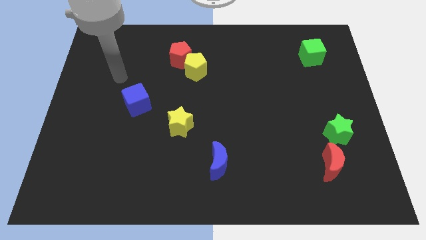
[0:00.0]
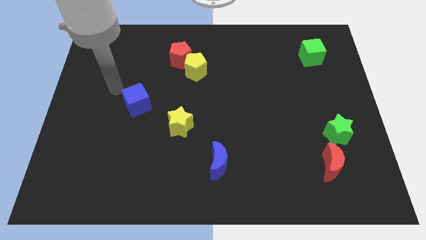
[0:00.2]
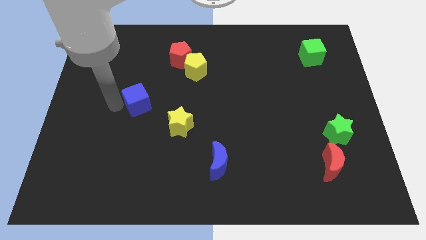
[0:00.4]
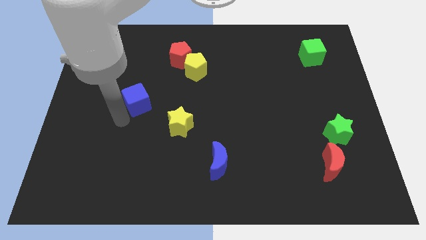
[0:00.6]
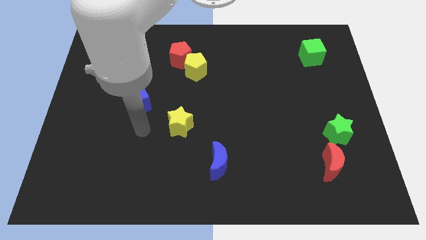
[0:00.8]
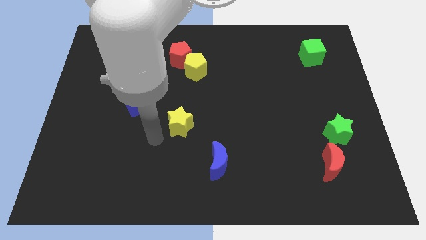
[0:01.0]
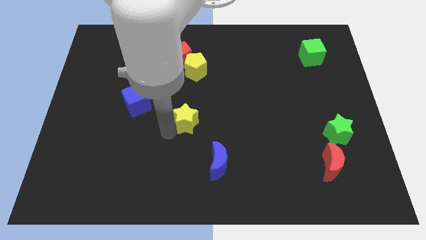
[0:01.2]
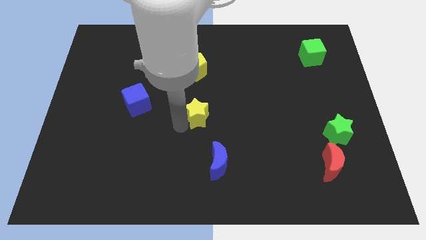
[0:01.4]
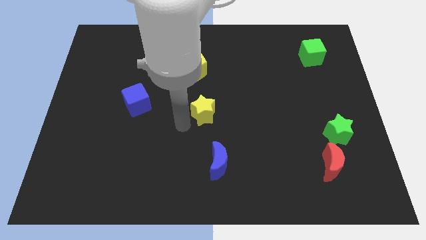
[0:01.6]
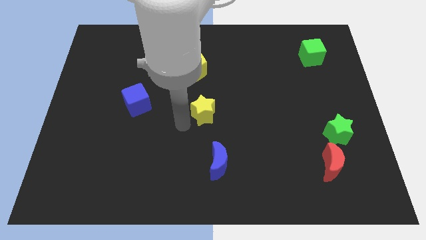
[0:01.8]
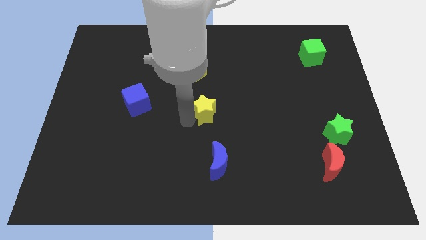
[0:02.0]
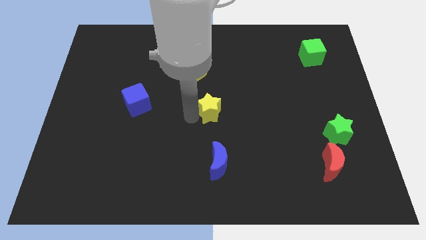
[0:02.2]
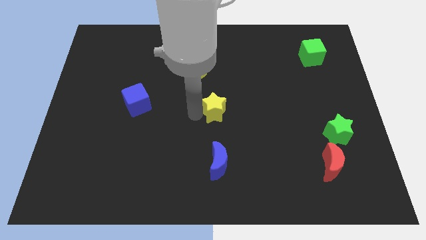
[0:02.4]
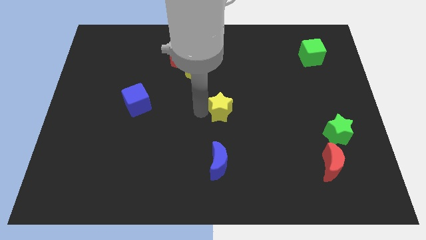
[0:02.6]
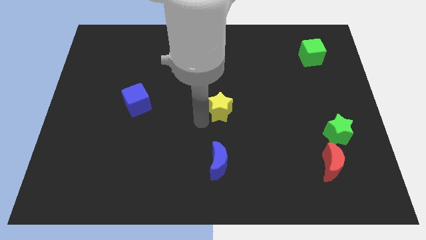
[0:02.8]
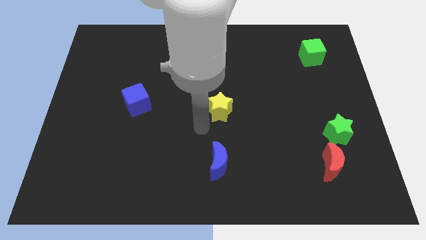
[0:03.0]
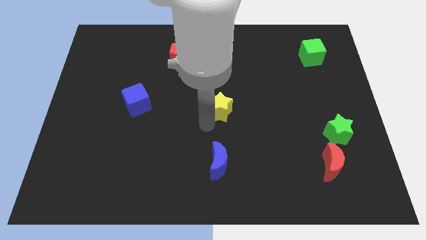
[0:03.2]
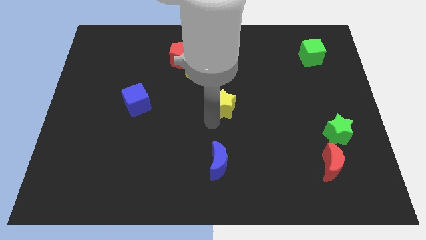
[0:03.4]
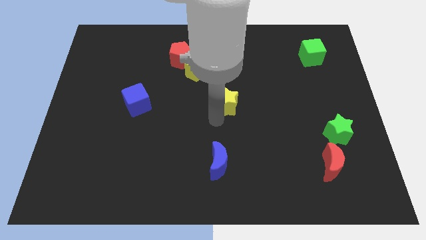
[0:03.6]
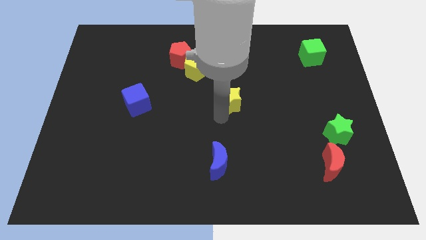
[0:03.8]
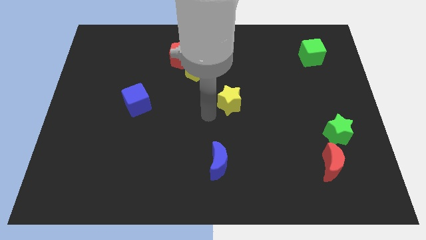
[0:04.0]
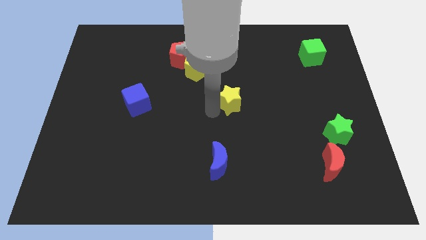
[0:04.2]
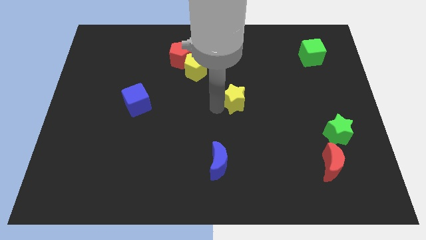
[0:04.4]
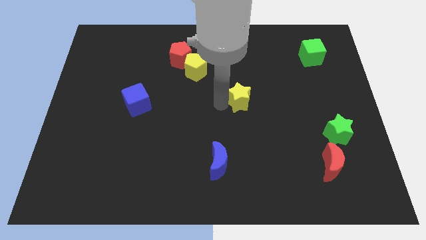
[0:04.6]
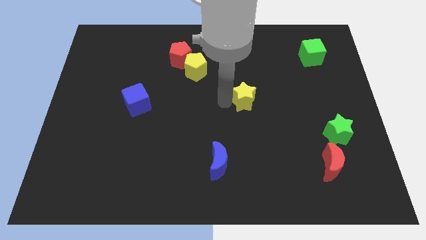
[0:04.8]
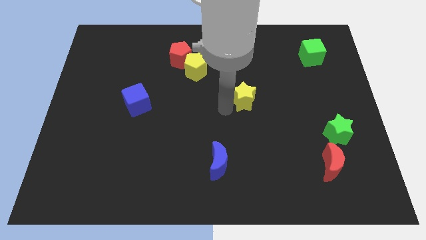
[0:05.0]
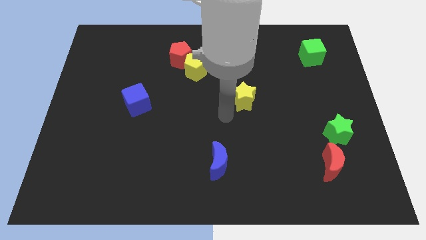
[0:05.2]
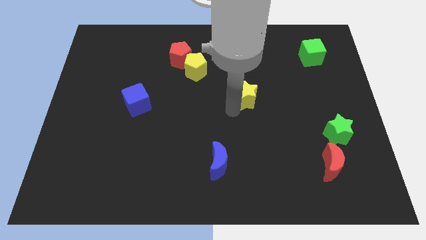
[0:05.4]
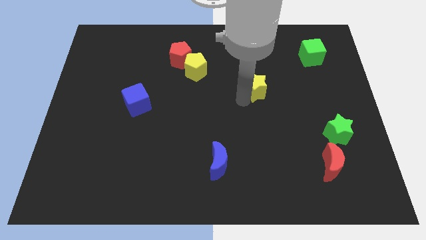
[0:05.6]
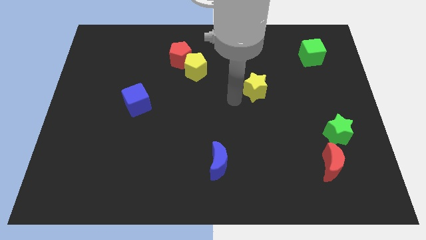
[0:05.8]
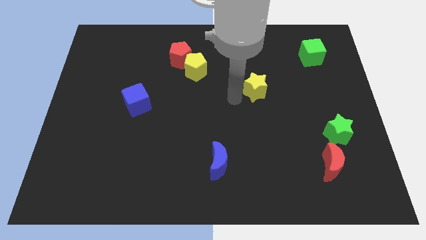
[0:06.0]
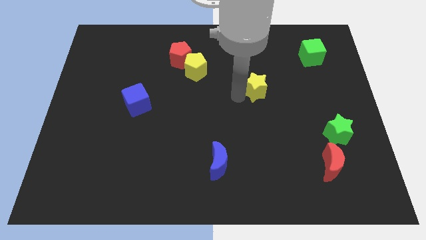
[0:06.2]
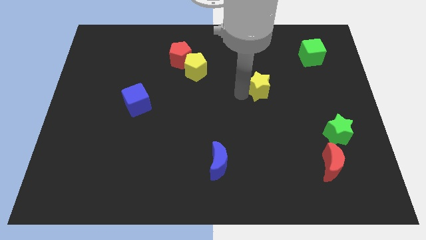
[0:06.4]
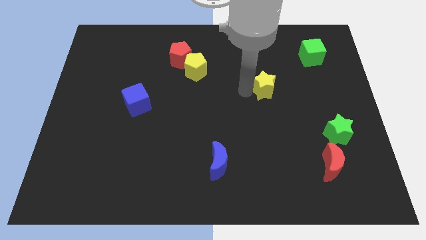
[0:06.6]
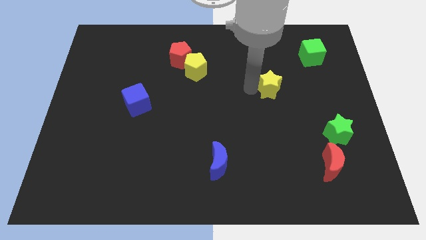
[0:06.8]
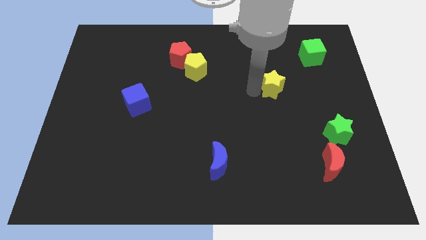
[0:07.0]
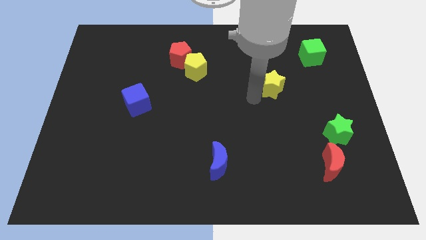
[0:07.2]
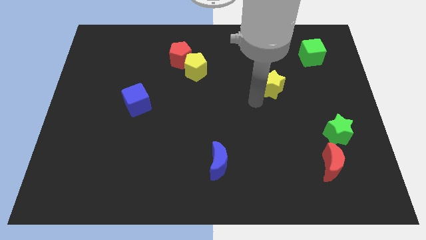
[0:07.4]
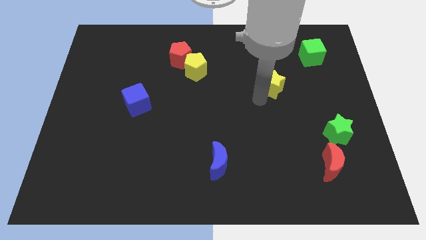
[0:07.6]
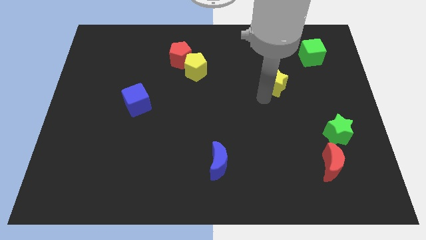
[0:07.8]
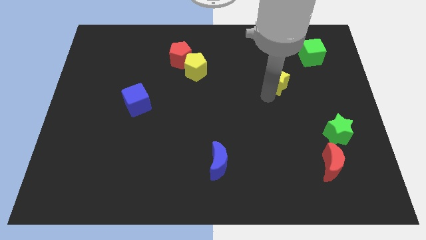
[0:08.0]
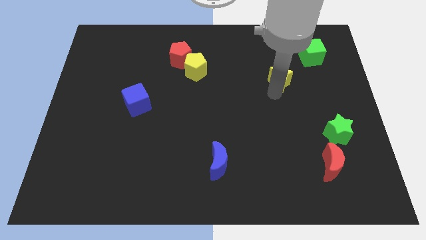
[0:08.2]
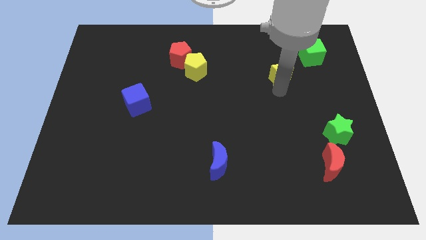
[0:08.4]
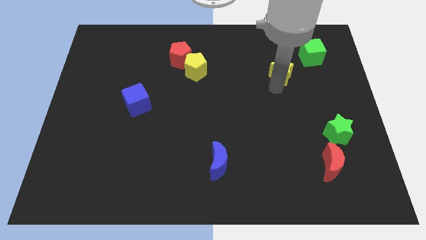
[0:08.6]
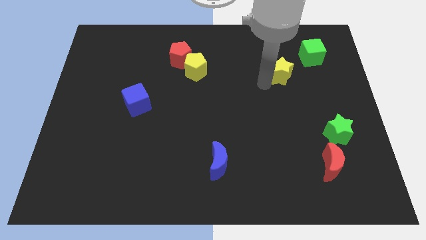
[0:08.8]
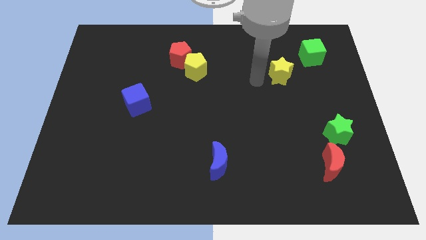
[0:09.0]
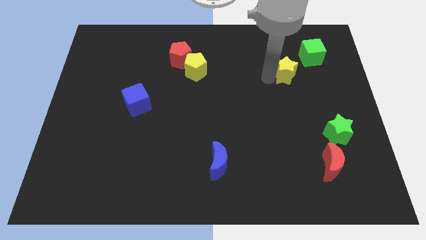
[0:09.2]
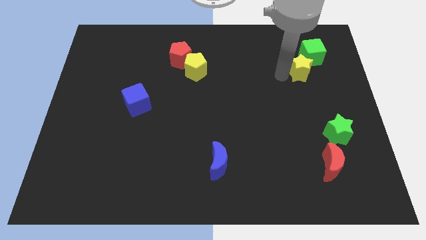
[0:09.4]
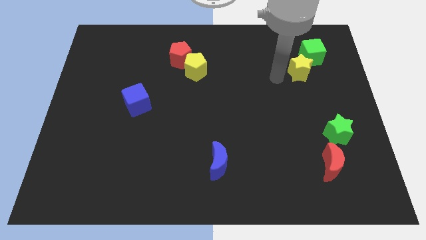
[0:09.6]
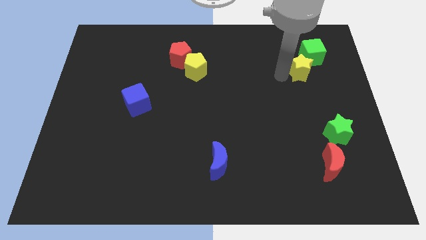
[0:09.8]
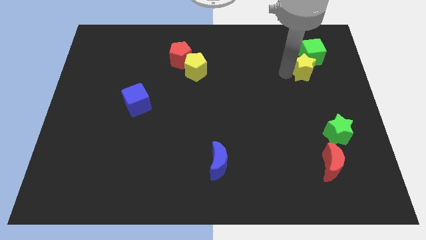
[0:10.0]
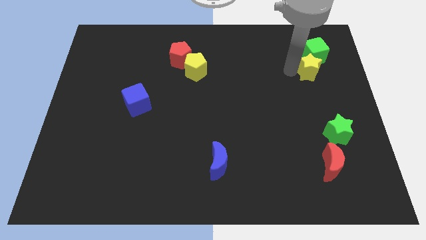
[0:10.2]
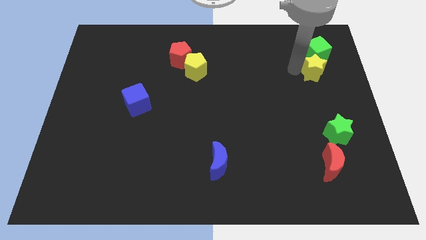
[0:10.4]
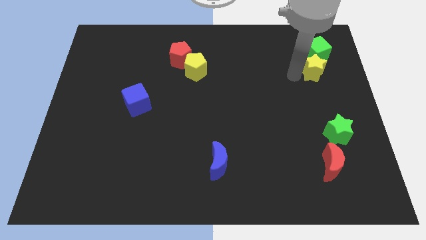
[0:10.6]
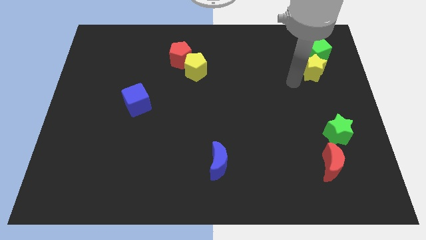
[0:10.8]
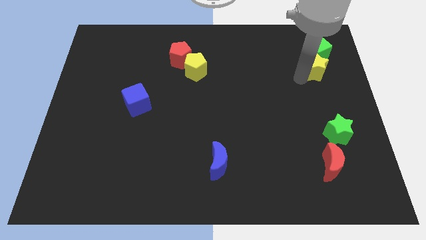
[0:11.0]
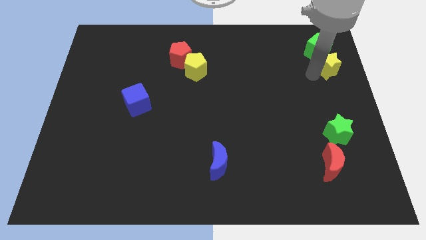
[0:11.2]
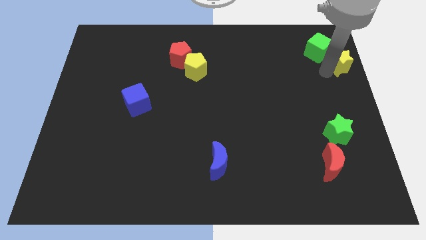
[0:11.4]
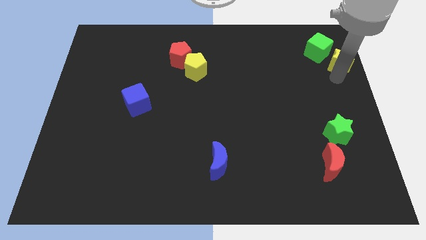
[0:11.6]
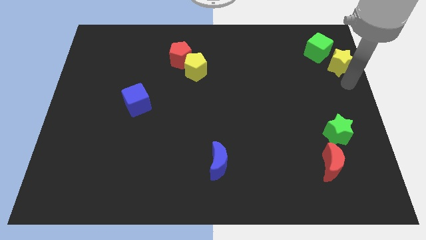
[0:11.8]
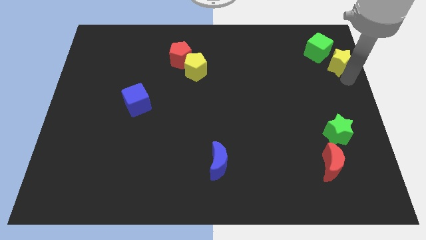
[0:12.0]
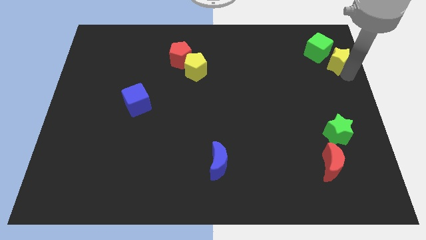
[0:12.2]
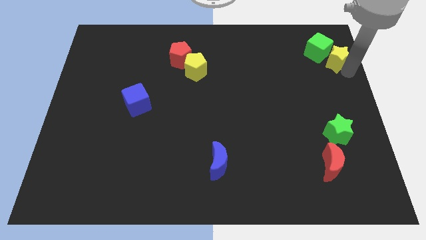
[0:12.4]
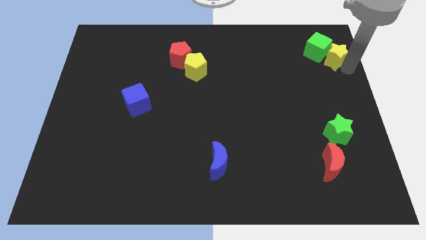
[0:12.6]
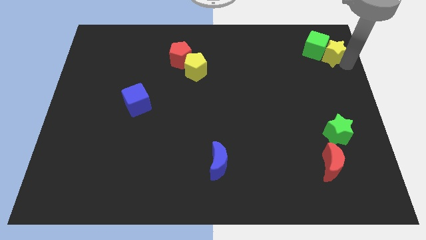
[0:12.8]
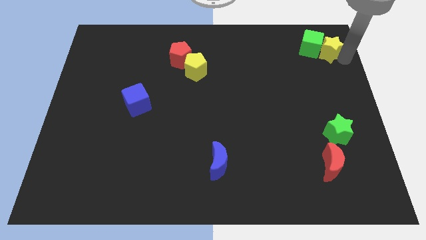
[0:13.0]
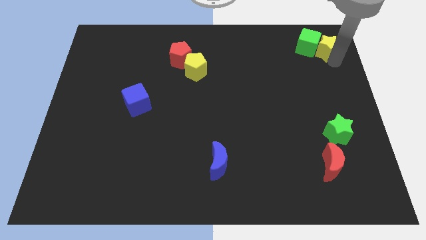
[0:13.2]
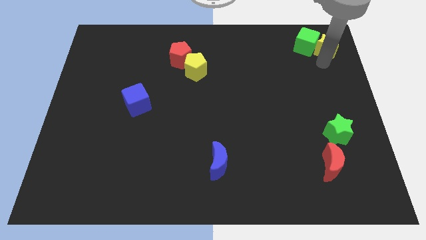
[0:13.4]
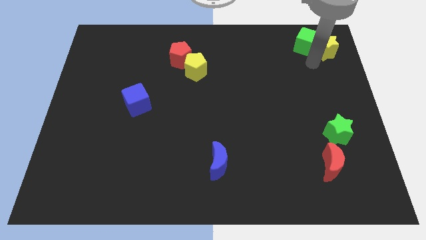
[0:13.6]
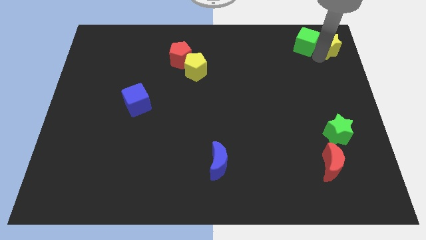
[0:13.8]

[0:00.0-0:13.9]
push the yellow star to the upper right corner
